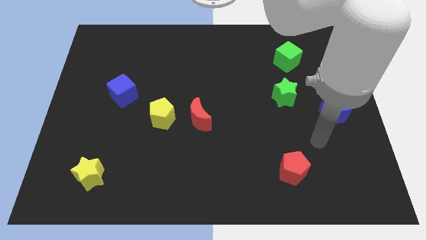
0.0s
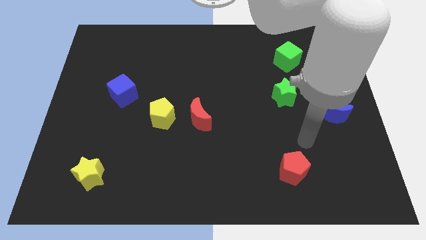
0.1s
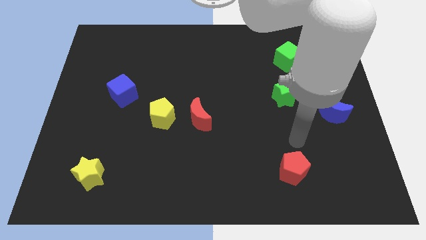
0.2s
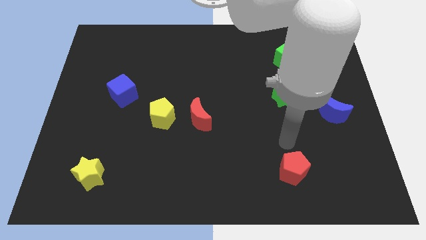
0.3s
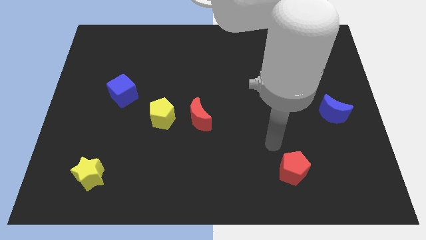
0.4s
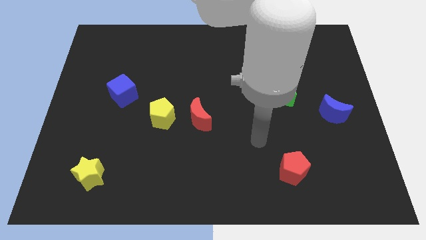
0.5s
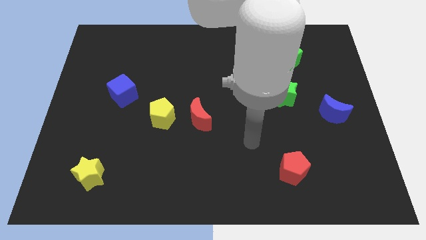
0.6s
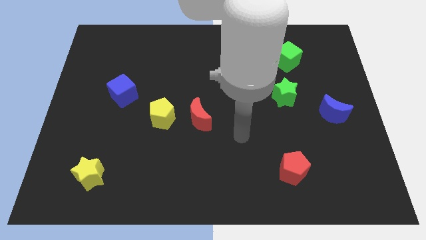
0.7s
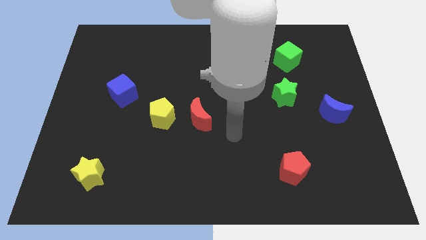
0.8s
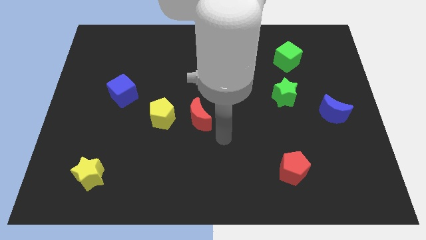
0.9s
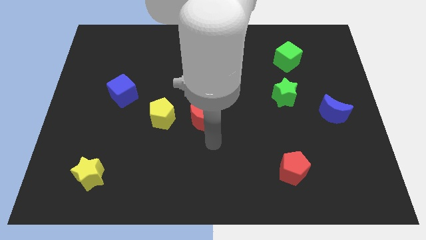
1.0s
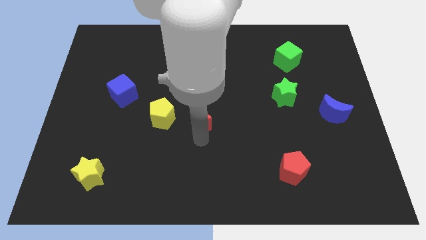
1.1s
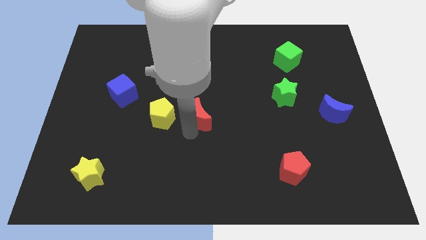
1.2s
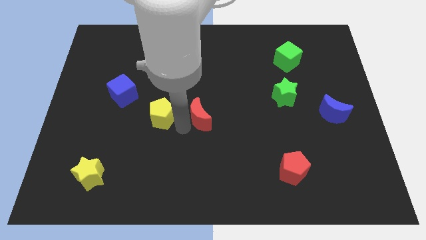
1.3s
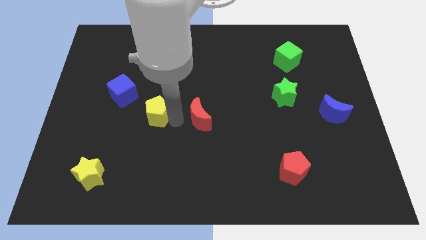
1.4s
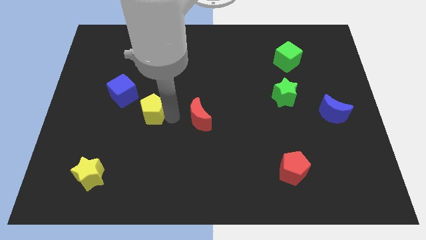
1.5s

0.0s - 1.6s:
move the red moon away from the yellow pentagon

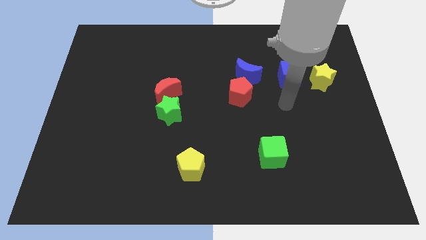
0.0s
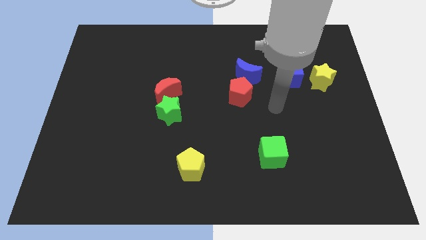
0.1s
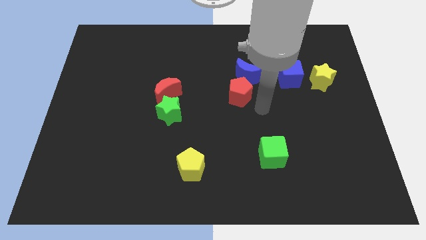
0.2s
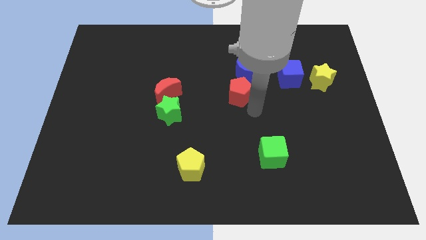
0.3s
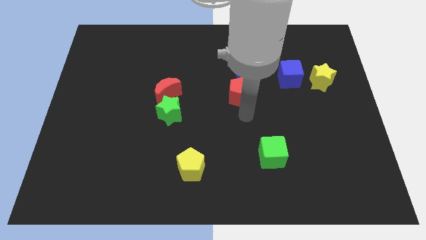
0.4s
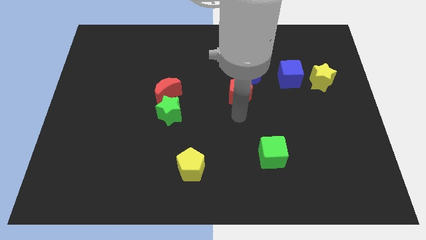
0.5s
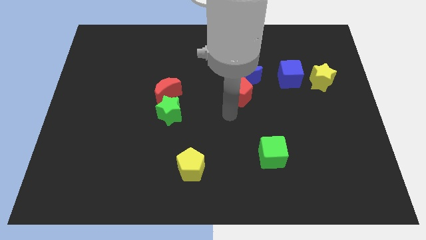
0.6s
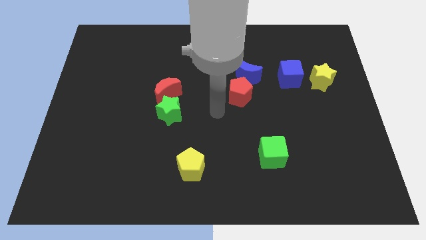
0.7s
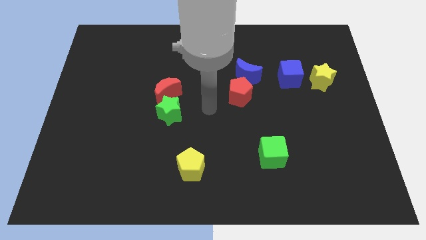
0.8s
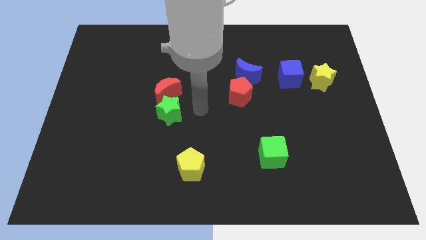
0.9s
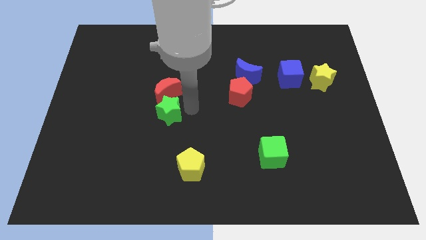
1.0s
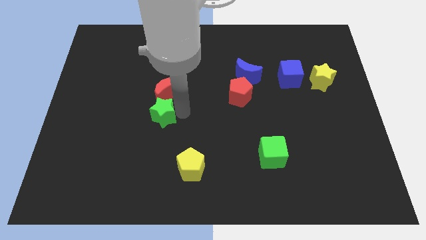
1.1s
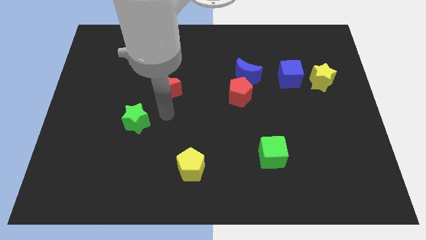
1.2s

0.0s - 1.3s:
pull the red moon apart from the green star

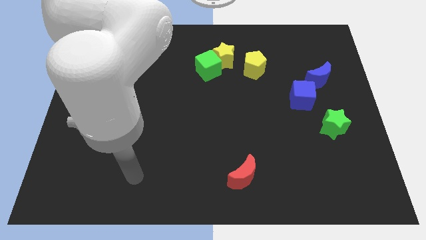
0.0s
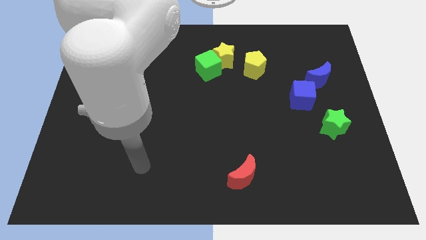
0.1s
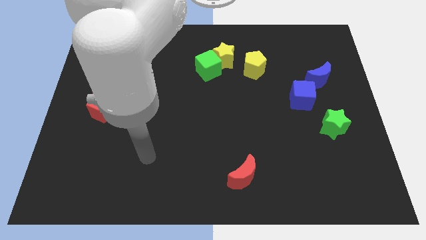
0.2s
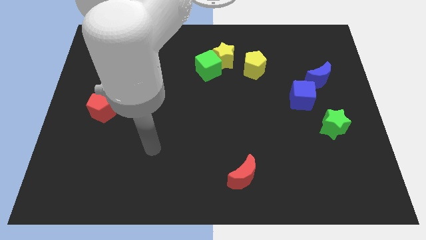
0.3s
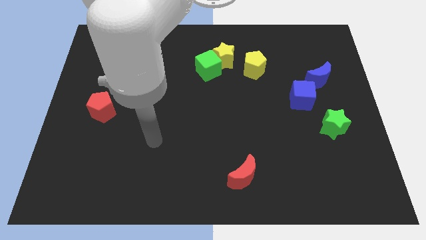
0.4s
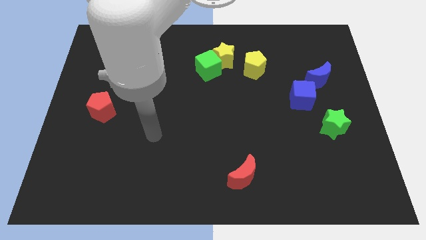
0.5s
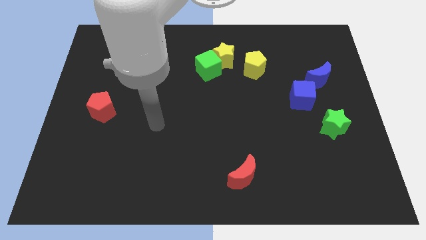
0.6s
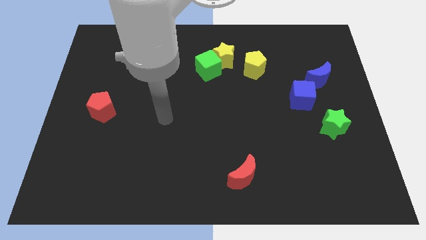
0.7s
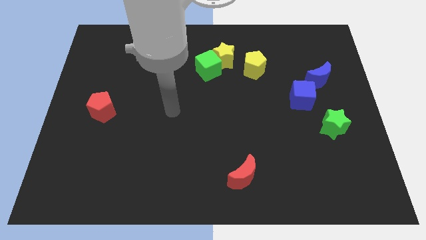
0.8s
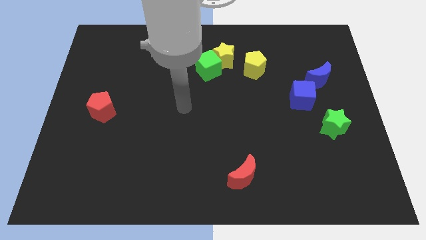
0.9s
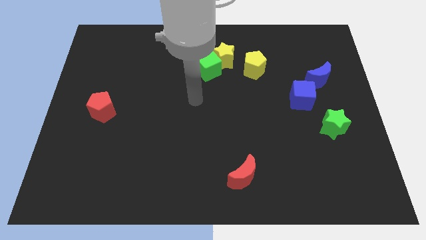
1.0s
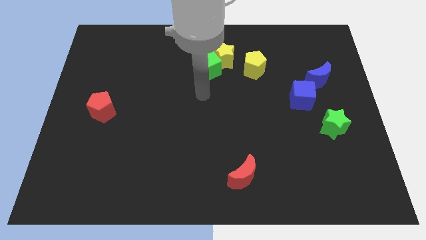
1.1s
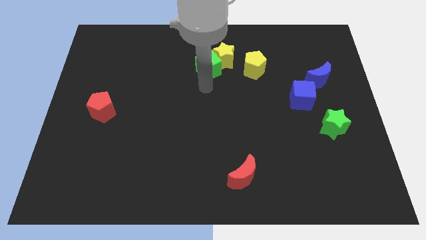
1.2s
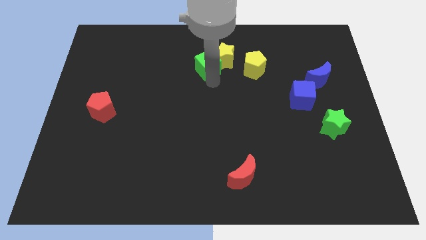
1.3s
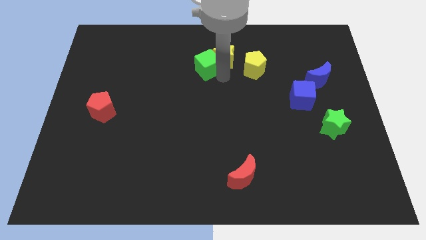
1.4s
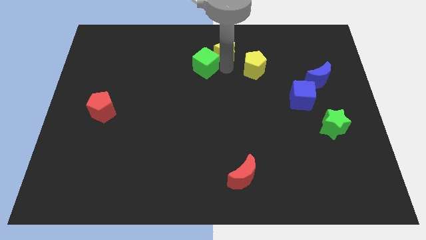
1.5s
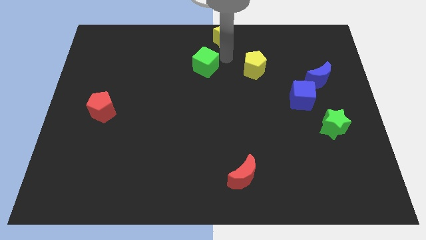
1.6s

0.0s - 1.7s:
separate the green cube from the yellow star

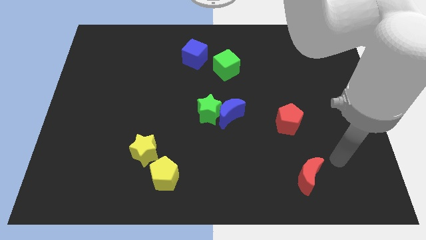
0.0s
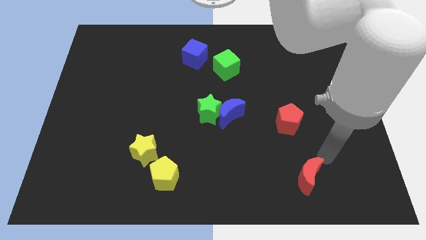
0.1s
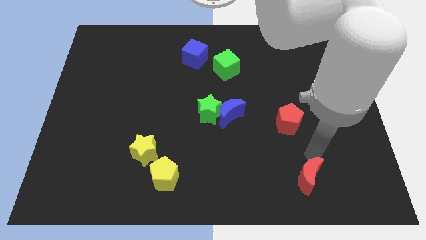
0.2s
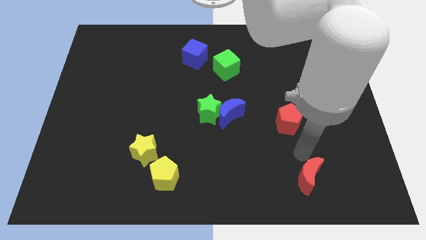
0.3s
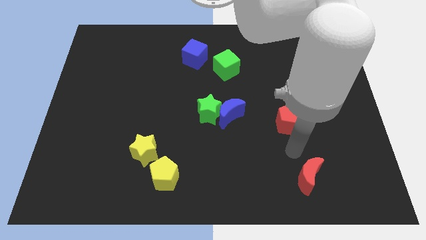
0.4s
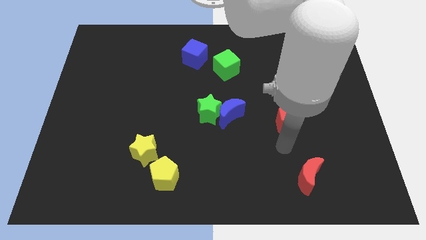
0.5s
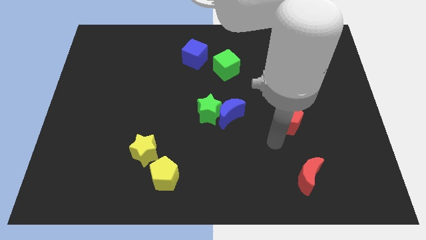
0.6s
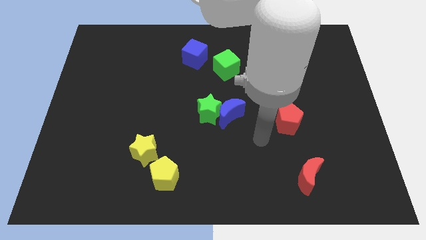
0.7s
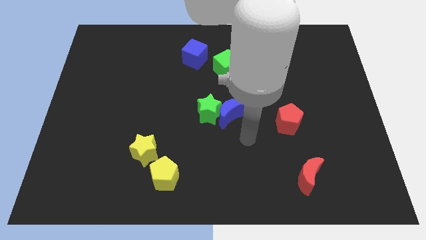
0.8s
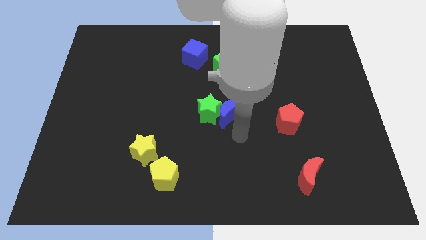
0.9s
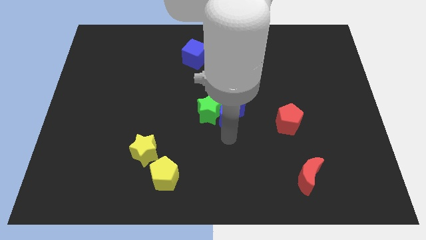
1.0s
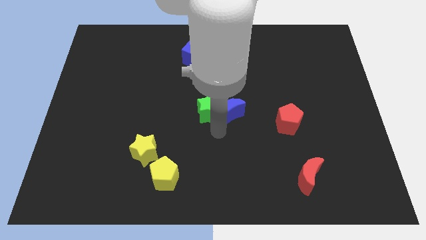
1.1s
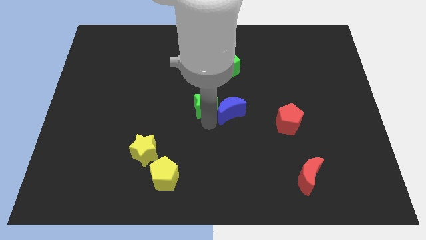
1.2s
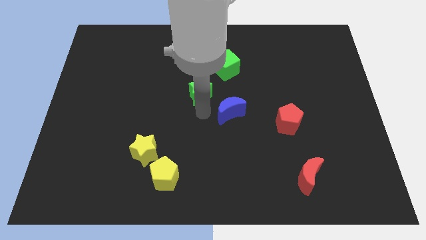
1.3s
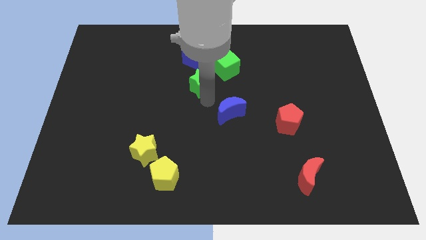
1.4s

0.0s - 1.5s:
separate the blue moon from the green star

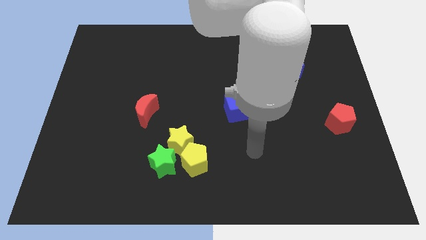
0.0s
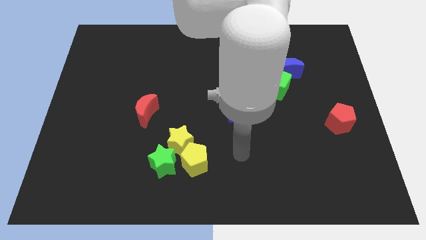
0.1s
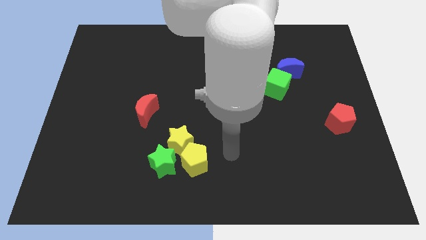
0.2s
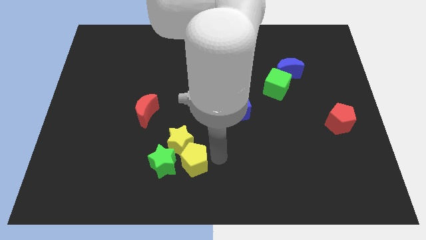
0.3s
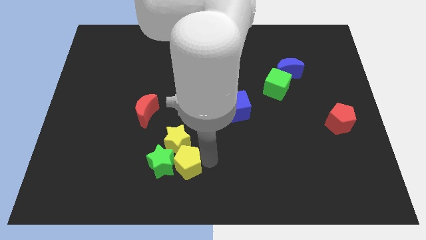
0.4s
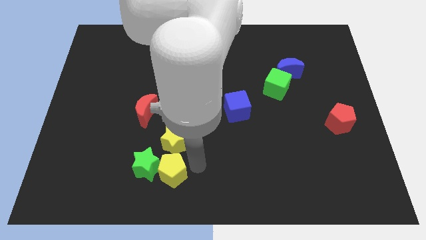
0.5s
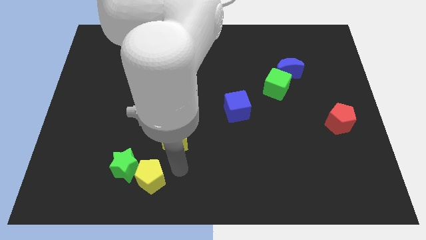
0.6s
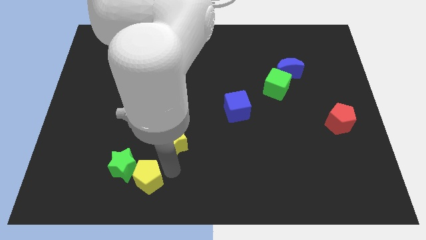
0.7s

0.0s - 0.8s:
separate the yellow star from the green star and yellow pentagon

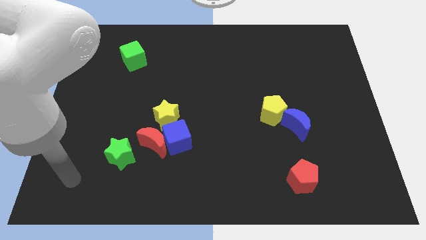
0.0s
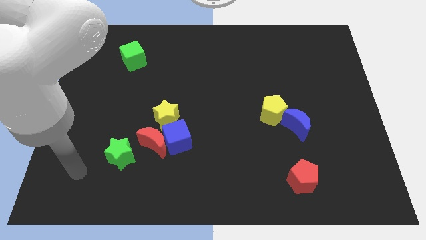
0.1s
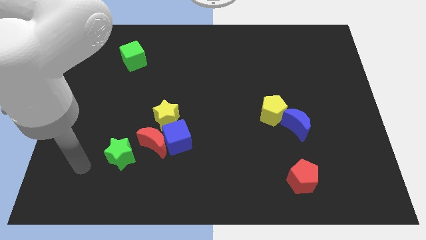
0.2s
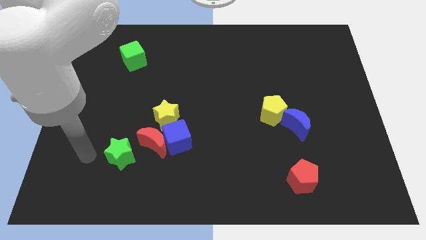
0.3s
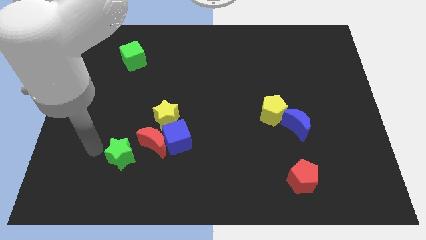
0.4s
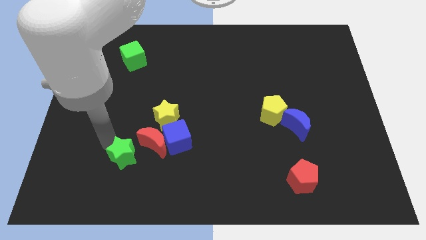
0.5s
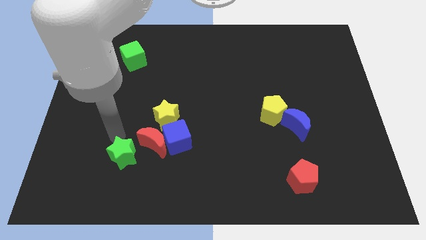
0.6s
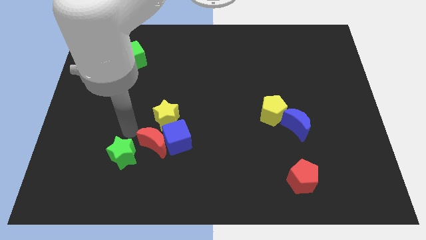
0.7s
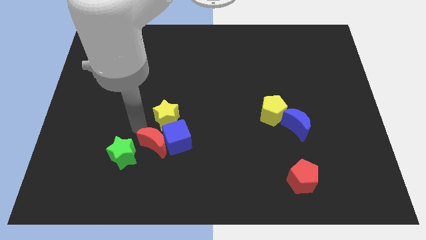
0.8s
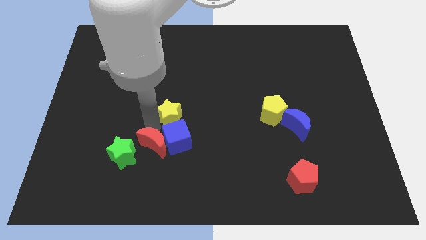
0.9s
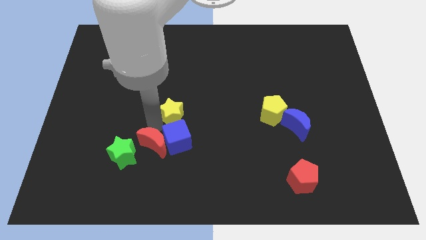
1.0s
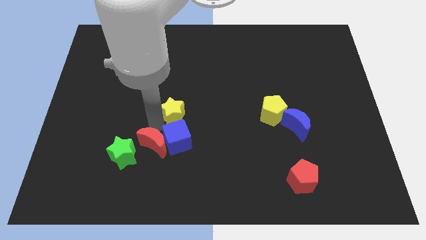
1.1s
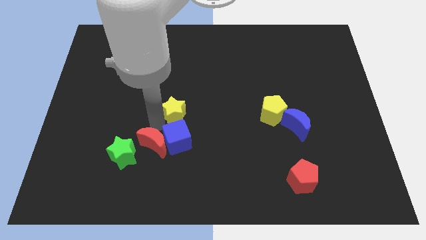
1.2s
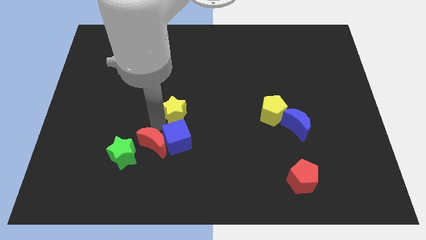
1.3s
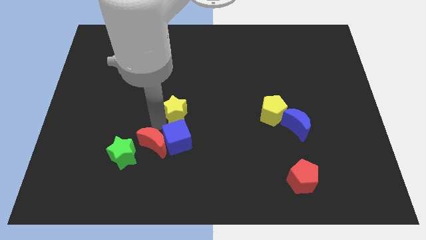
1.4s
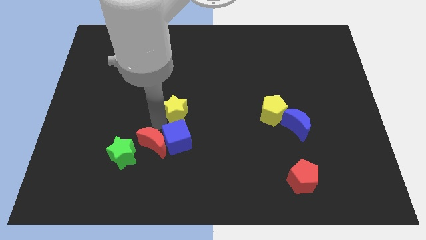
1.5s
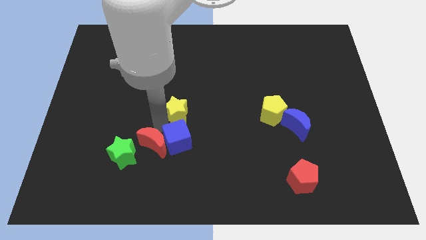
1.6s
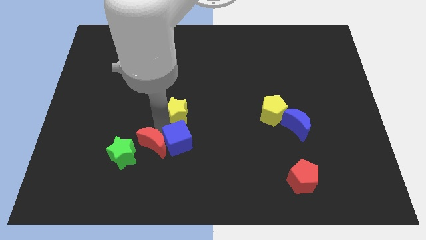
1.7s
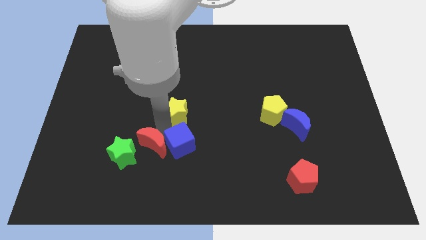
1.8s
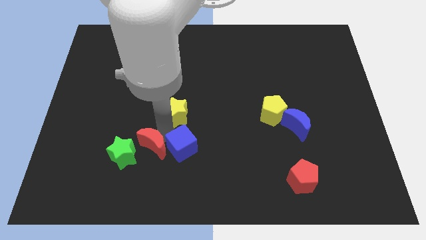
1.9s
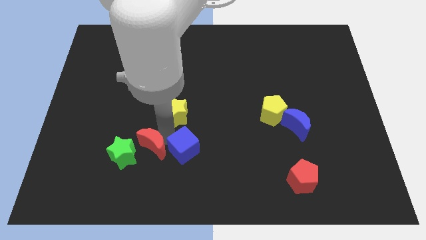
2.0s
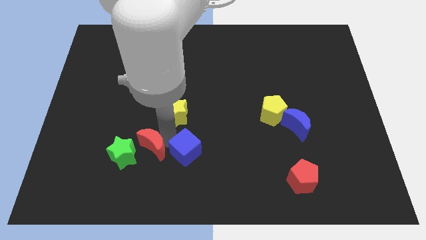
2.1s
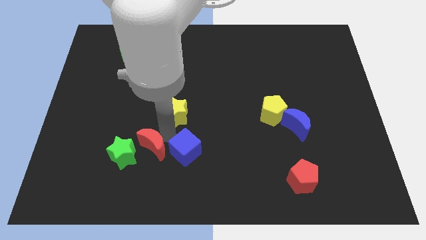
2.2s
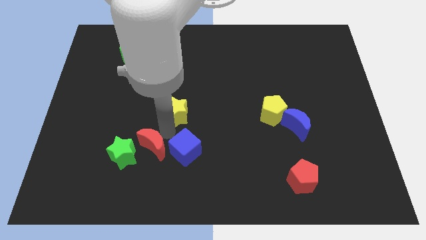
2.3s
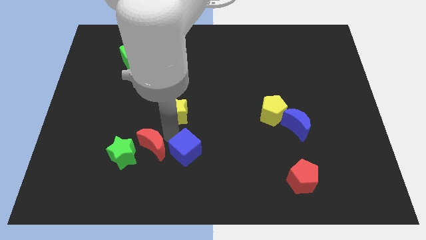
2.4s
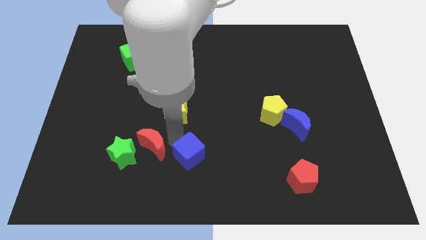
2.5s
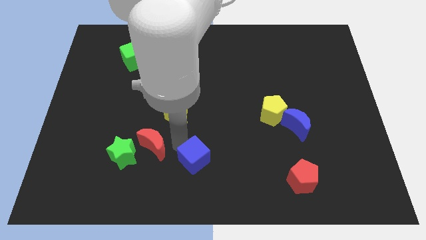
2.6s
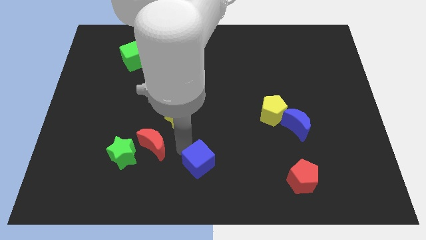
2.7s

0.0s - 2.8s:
separate the blue cube from the red moon and yellow star
